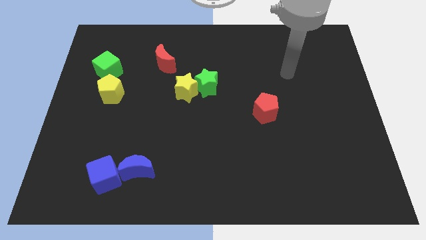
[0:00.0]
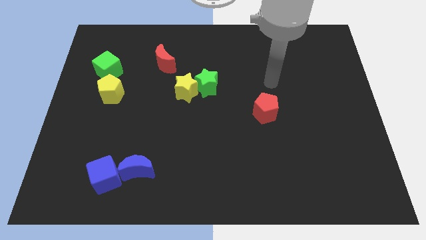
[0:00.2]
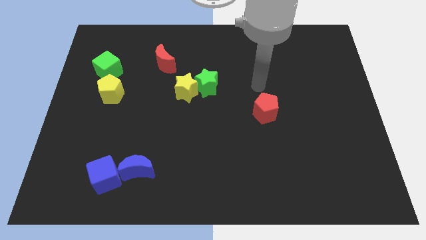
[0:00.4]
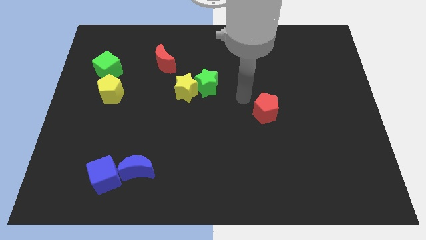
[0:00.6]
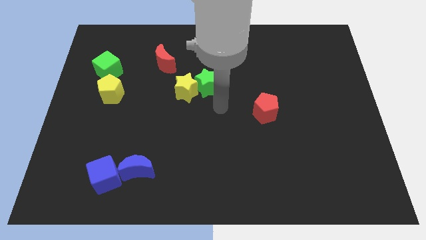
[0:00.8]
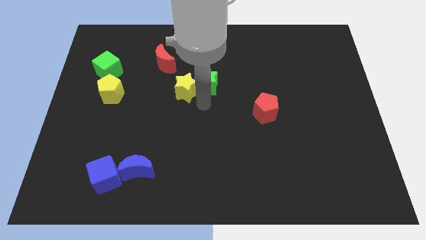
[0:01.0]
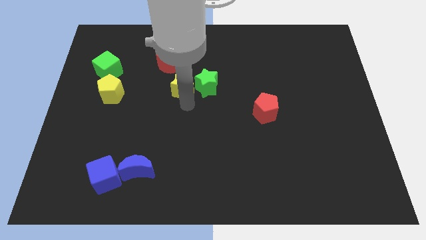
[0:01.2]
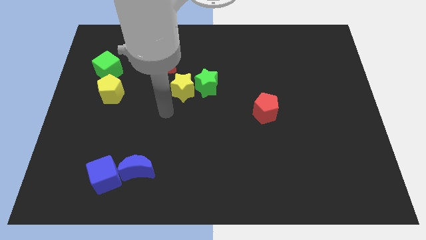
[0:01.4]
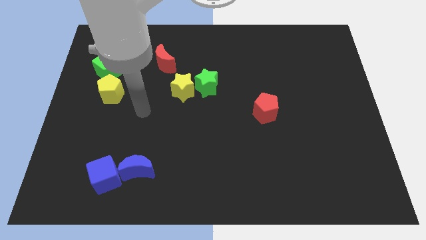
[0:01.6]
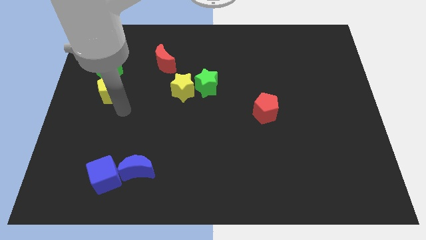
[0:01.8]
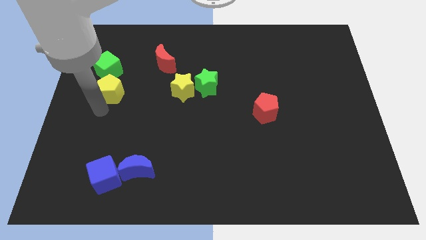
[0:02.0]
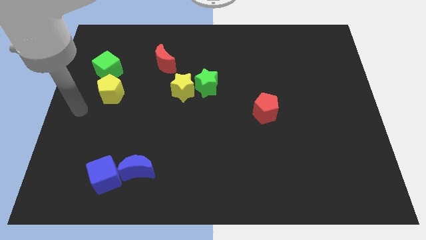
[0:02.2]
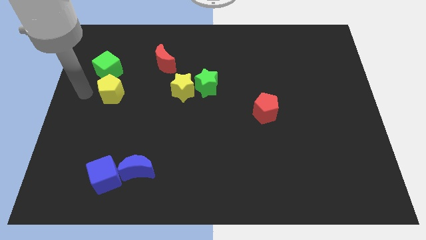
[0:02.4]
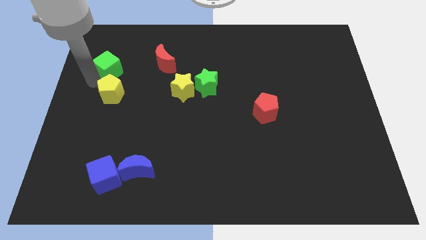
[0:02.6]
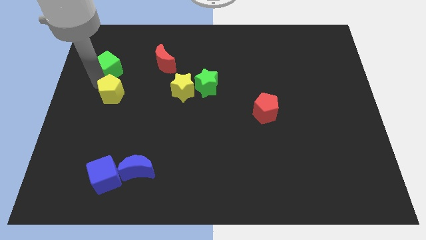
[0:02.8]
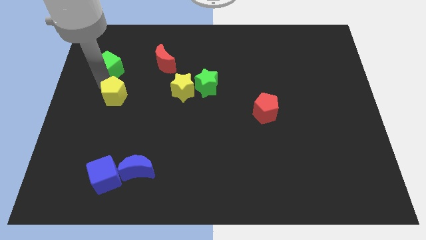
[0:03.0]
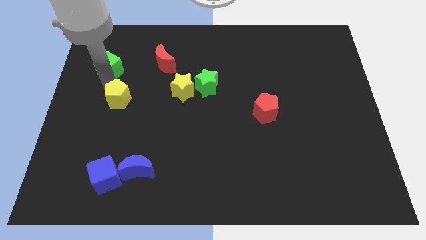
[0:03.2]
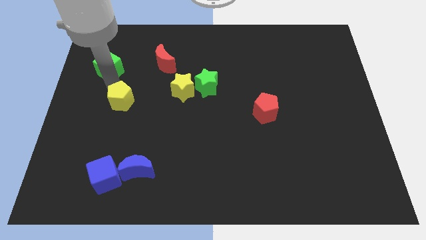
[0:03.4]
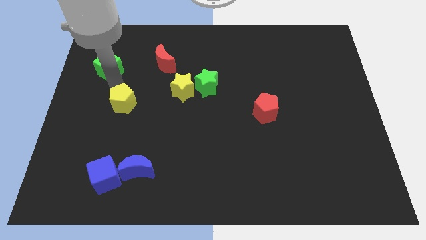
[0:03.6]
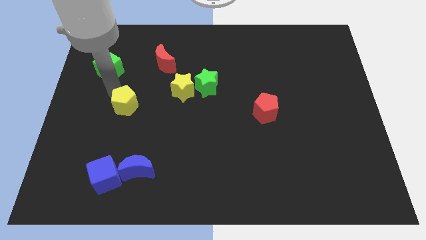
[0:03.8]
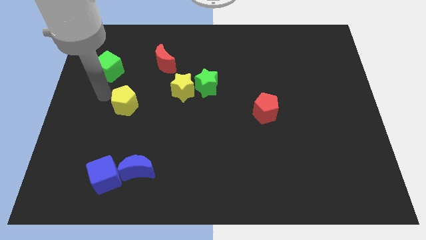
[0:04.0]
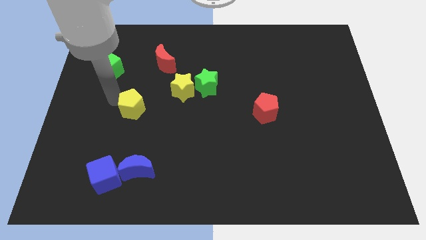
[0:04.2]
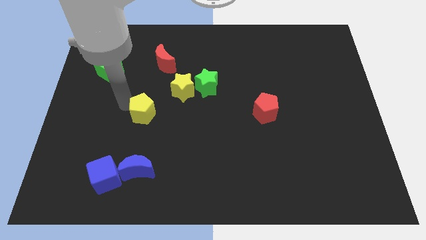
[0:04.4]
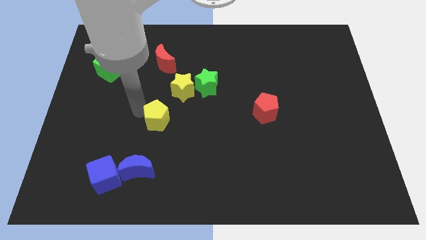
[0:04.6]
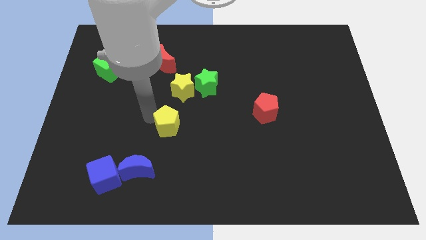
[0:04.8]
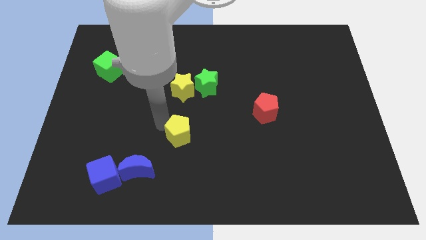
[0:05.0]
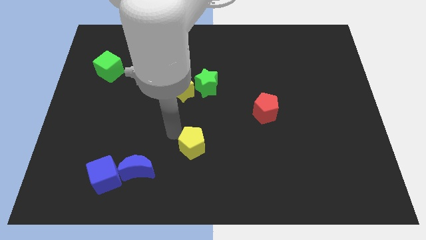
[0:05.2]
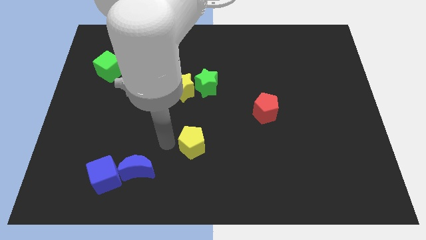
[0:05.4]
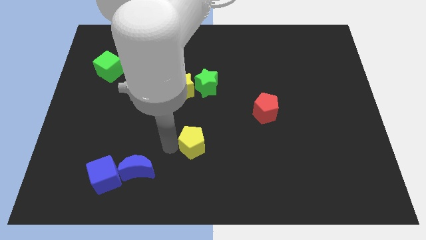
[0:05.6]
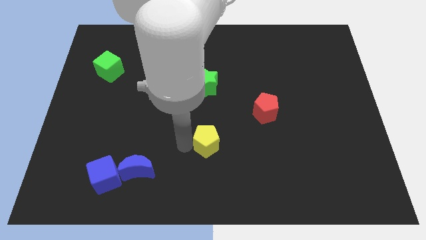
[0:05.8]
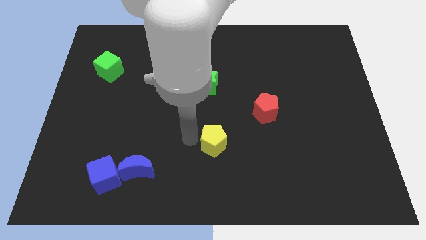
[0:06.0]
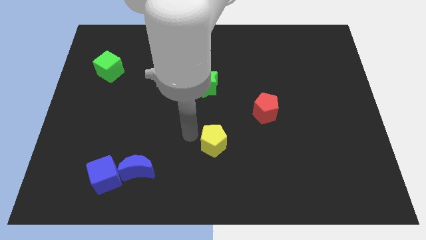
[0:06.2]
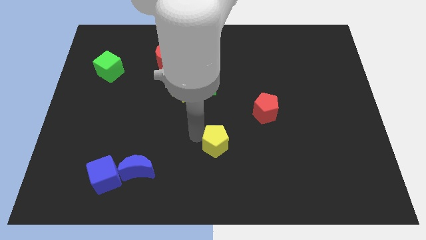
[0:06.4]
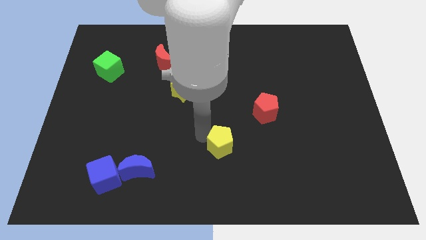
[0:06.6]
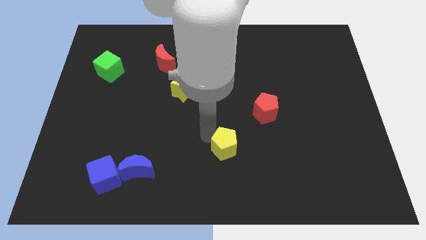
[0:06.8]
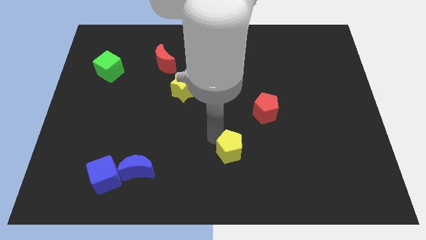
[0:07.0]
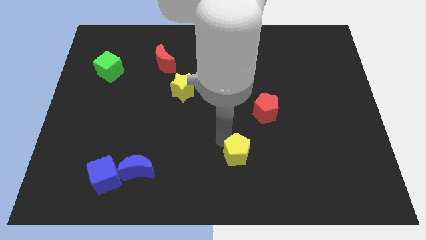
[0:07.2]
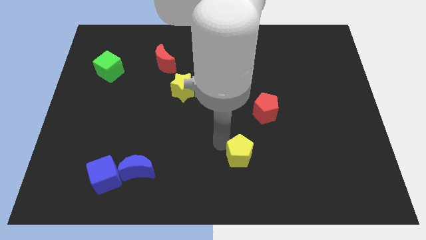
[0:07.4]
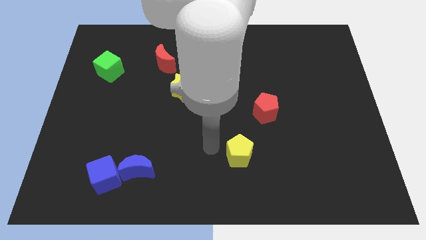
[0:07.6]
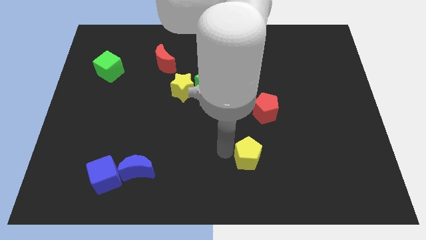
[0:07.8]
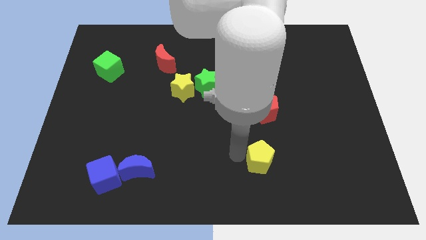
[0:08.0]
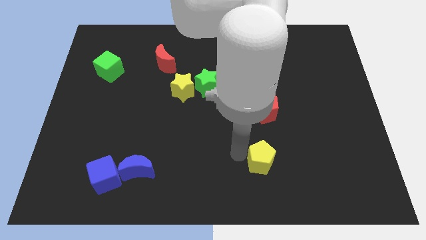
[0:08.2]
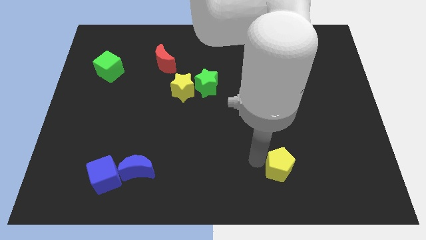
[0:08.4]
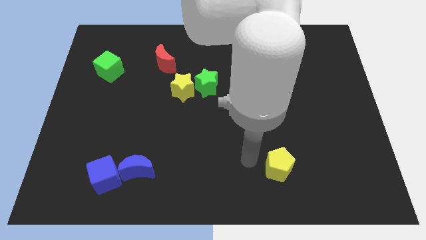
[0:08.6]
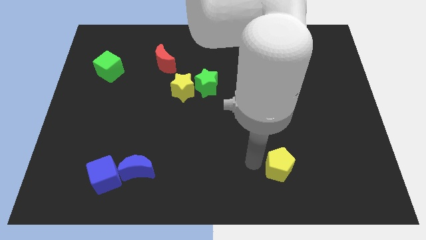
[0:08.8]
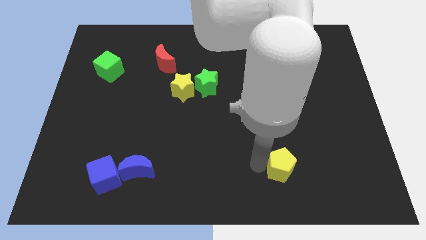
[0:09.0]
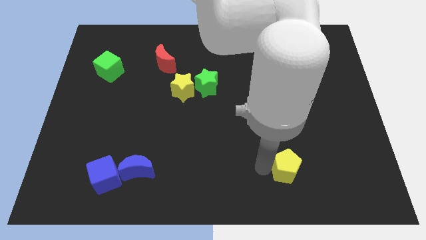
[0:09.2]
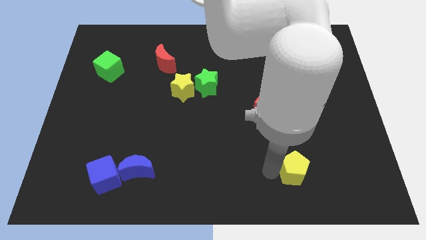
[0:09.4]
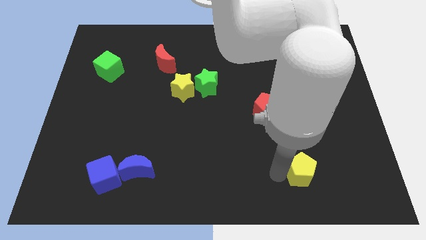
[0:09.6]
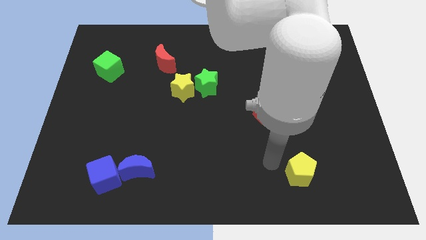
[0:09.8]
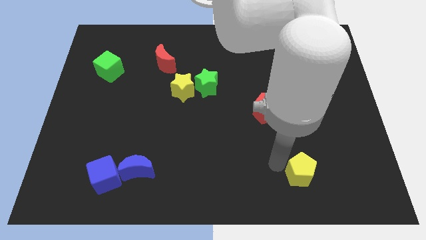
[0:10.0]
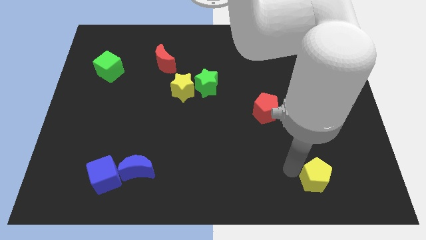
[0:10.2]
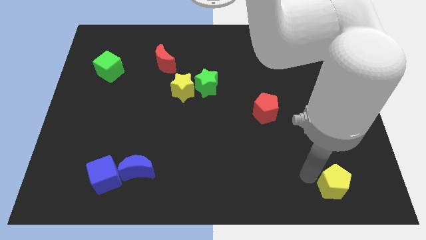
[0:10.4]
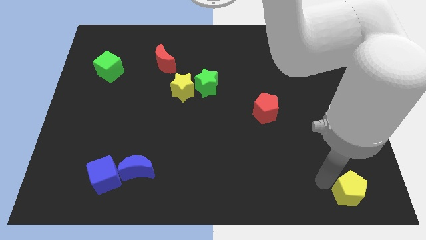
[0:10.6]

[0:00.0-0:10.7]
slide the yellow pentagon to the bottom right of the board

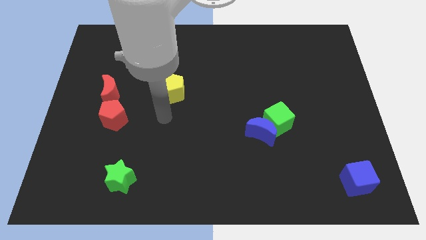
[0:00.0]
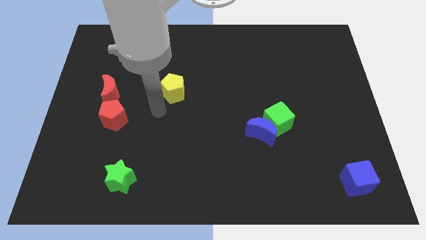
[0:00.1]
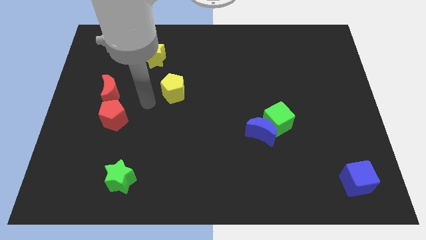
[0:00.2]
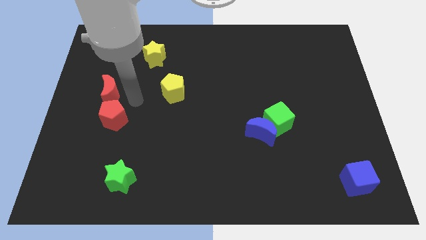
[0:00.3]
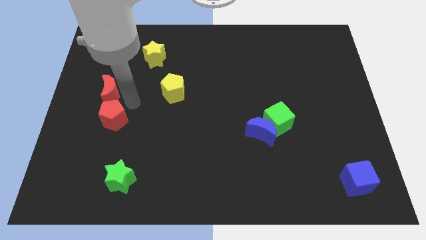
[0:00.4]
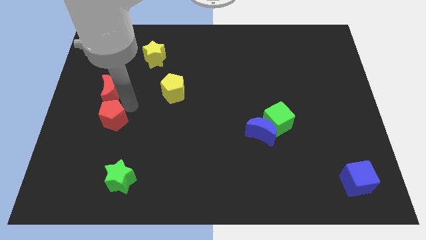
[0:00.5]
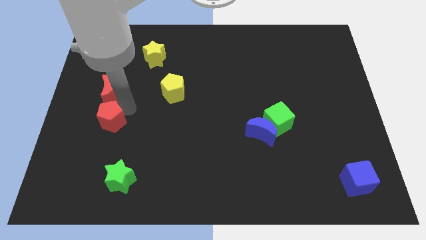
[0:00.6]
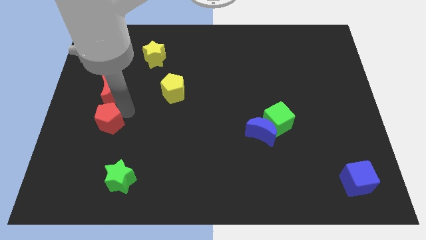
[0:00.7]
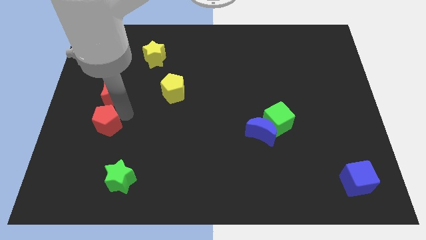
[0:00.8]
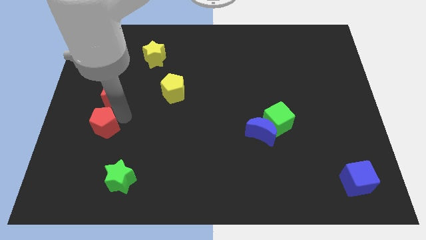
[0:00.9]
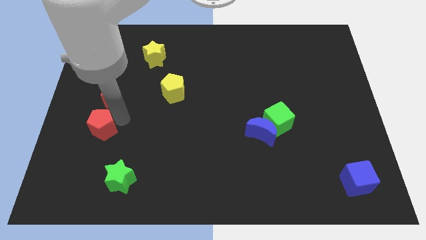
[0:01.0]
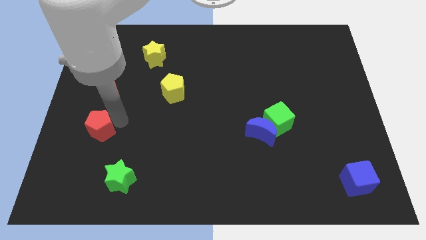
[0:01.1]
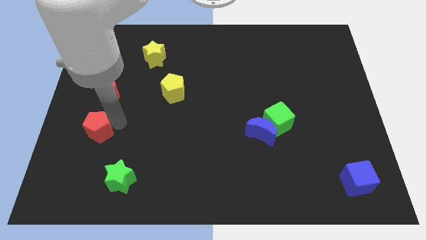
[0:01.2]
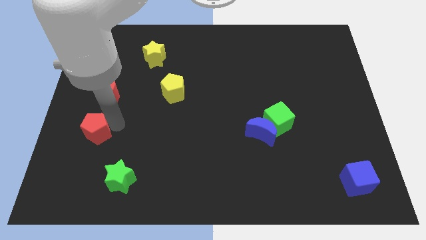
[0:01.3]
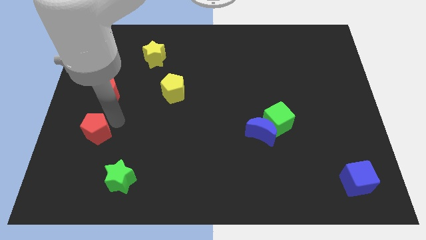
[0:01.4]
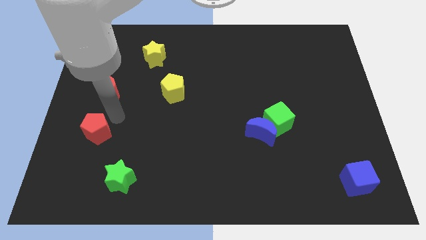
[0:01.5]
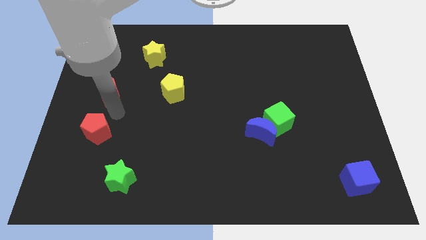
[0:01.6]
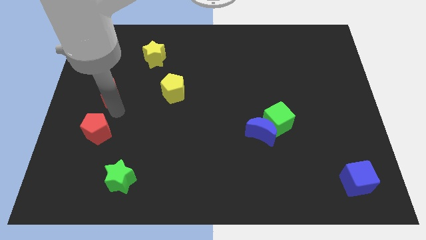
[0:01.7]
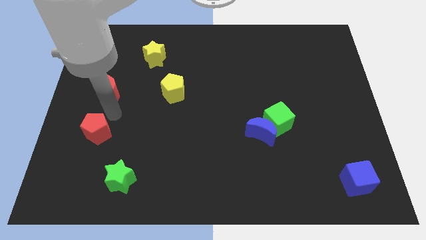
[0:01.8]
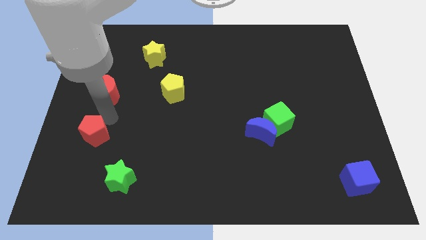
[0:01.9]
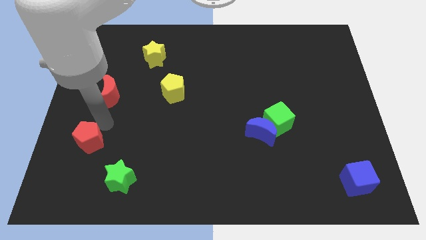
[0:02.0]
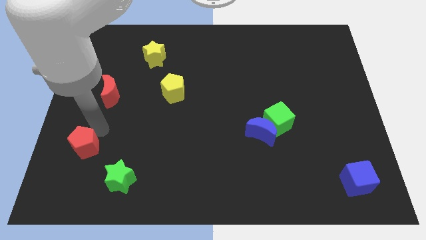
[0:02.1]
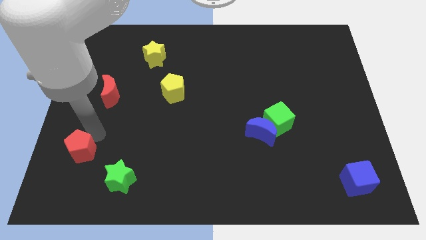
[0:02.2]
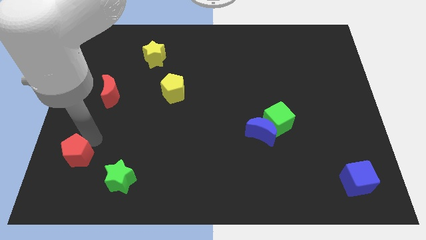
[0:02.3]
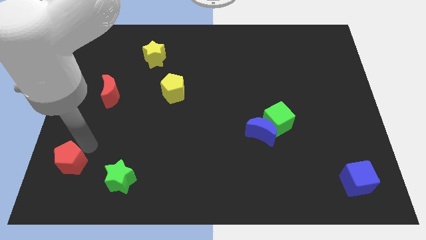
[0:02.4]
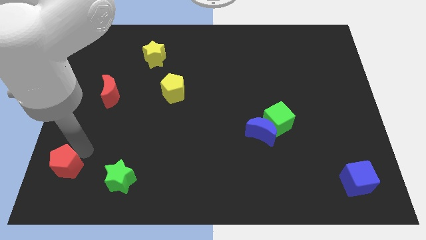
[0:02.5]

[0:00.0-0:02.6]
slide the red pentagon to the bottom left corner
